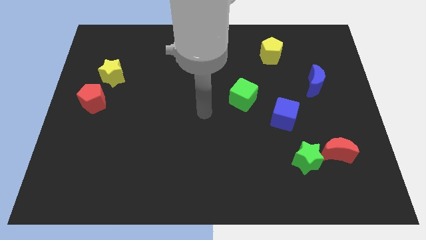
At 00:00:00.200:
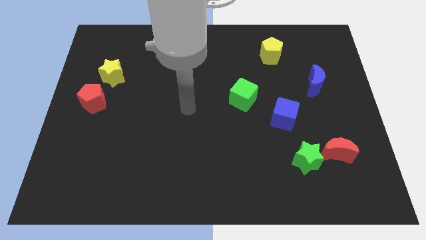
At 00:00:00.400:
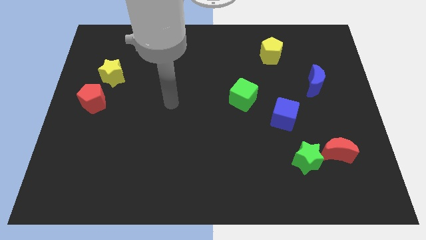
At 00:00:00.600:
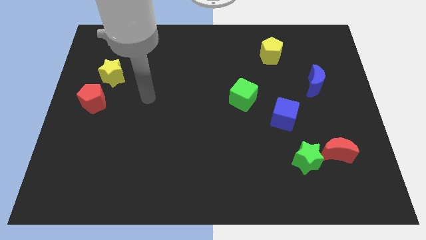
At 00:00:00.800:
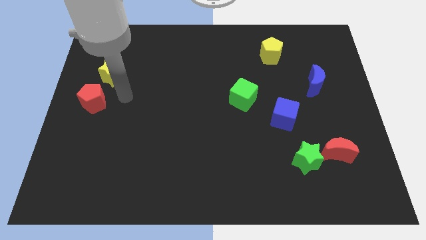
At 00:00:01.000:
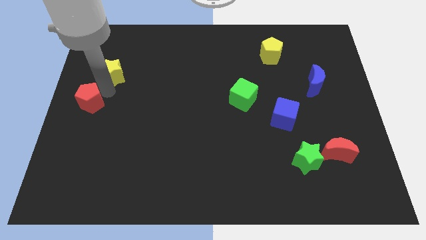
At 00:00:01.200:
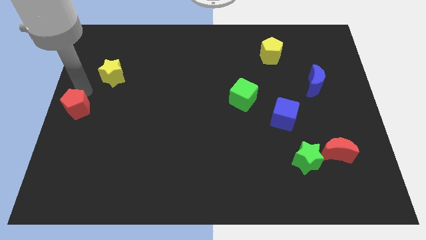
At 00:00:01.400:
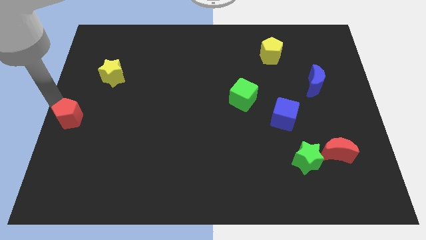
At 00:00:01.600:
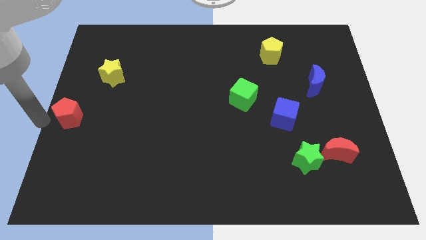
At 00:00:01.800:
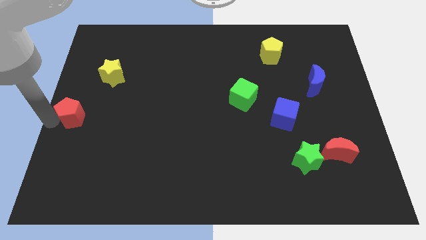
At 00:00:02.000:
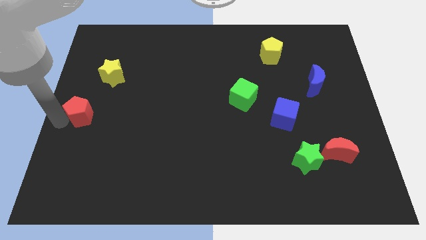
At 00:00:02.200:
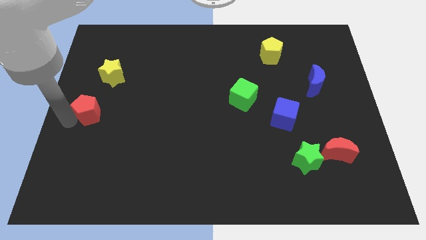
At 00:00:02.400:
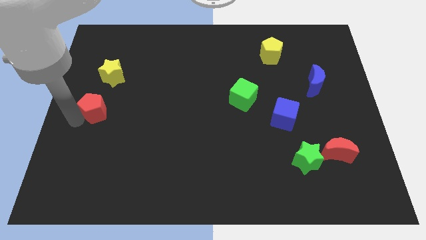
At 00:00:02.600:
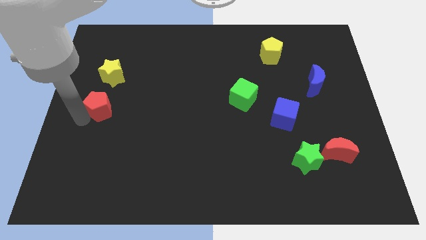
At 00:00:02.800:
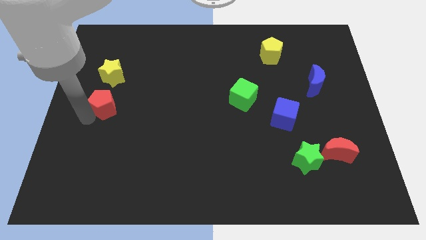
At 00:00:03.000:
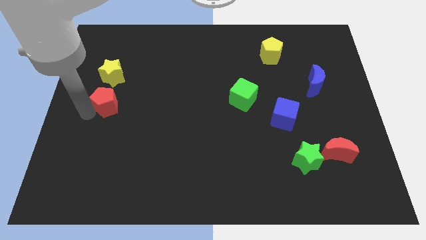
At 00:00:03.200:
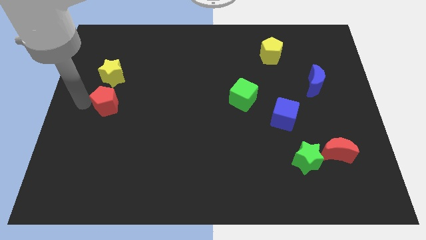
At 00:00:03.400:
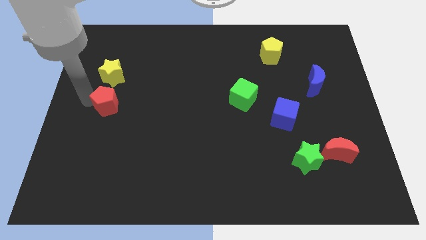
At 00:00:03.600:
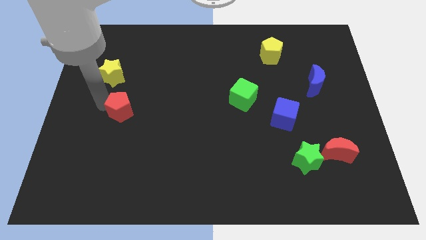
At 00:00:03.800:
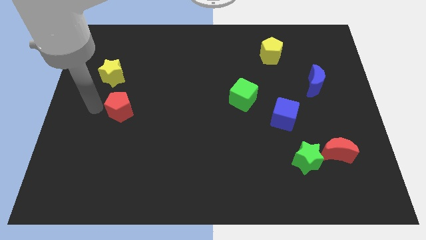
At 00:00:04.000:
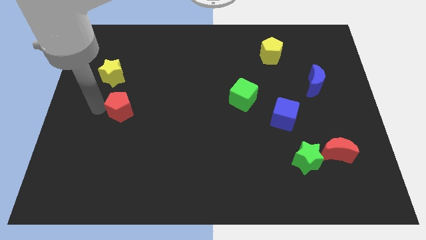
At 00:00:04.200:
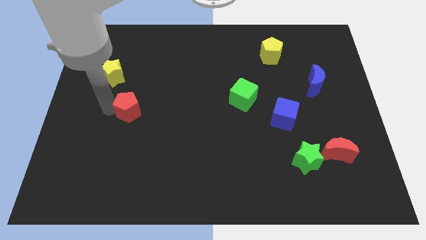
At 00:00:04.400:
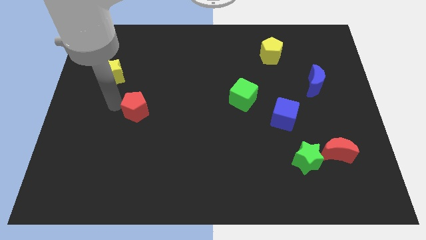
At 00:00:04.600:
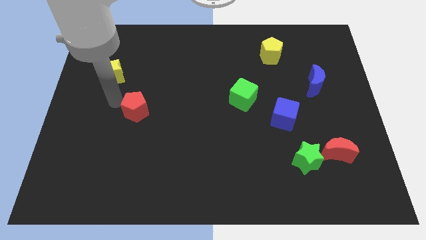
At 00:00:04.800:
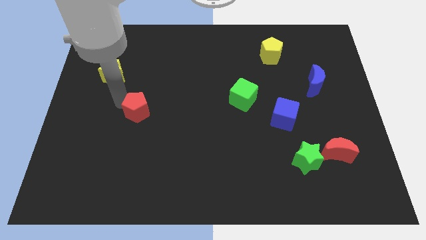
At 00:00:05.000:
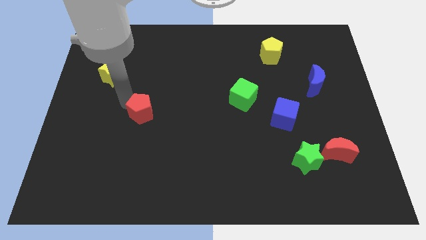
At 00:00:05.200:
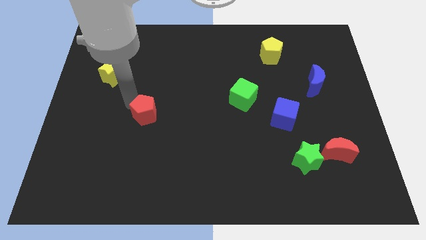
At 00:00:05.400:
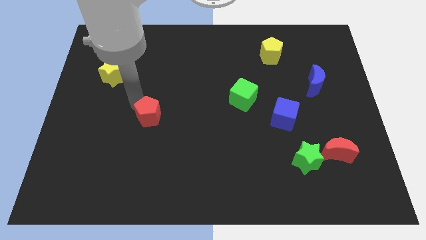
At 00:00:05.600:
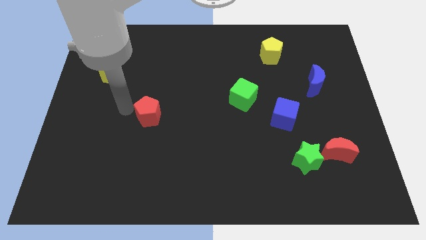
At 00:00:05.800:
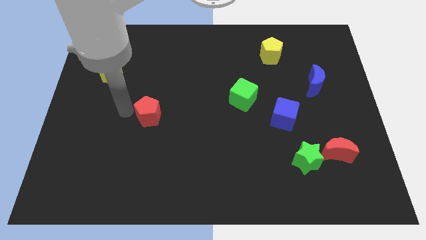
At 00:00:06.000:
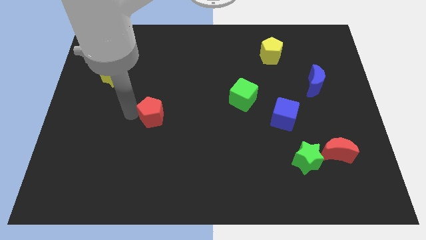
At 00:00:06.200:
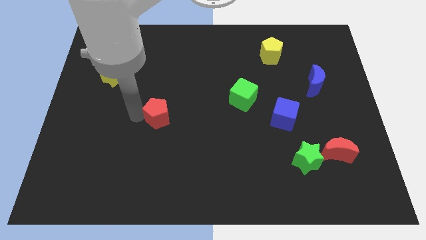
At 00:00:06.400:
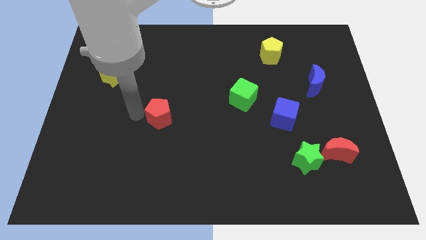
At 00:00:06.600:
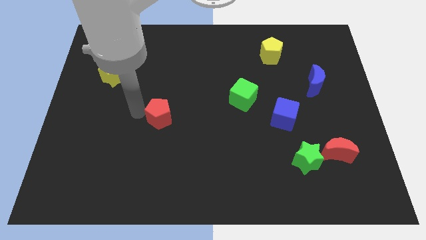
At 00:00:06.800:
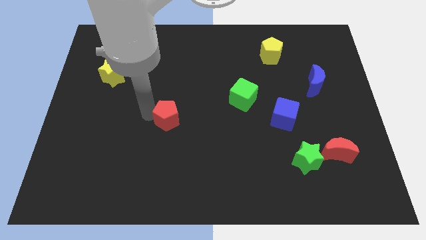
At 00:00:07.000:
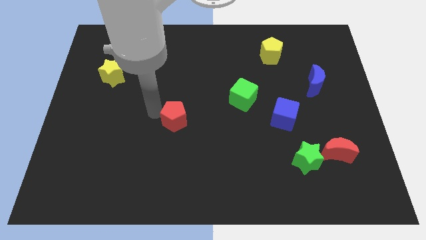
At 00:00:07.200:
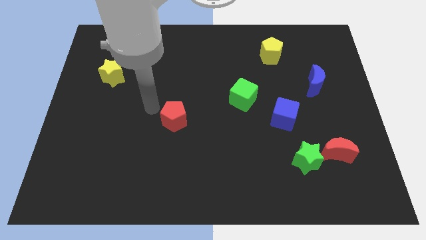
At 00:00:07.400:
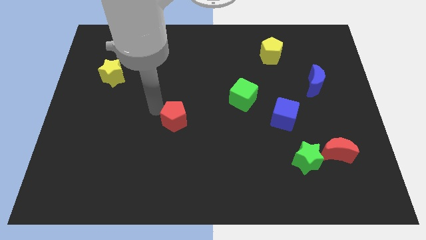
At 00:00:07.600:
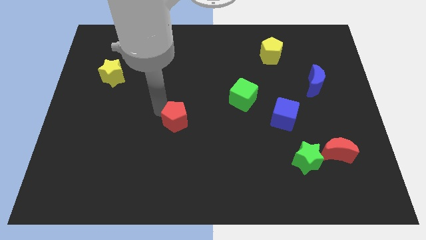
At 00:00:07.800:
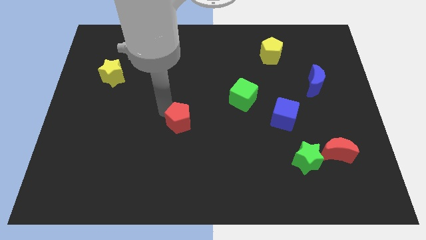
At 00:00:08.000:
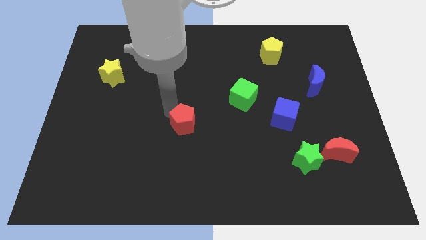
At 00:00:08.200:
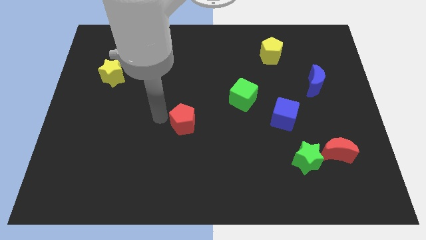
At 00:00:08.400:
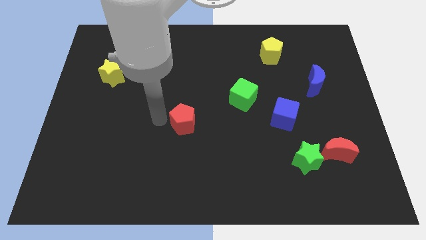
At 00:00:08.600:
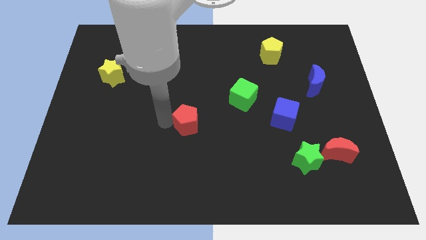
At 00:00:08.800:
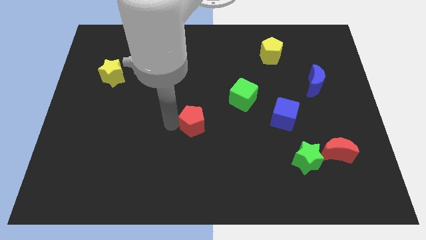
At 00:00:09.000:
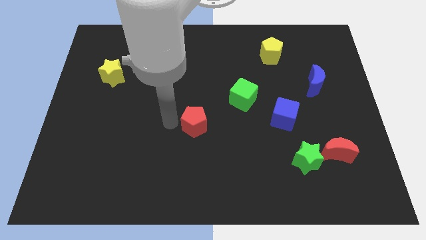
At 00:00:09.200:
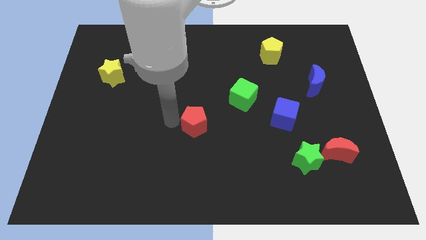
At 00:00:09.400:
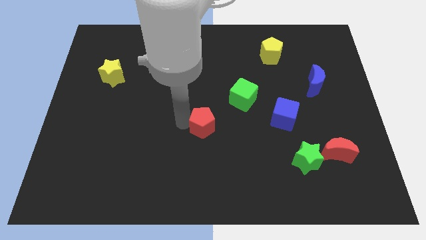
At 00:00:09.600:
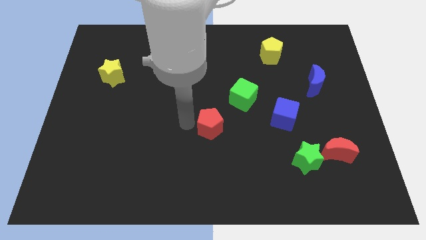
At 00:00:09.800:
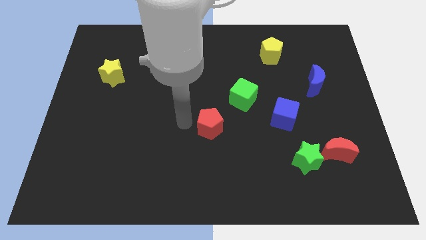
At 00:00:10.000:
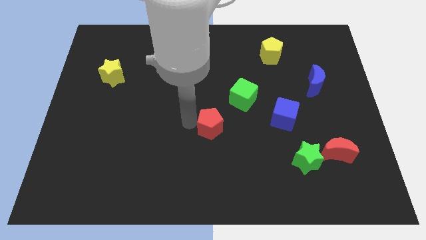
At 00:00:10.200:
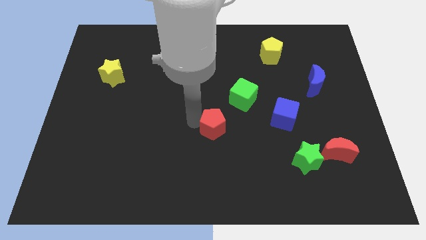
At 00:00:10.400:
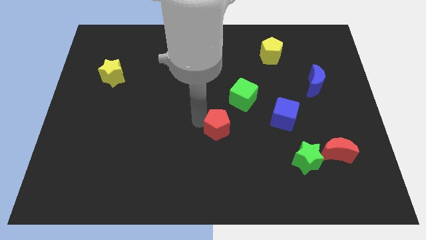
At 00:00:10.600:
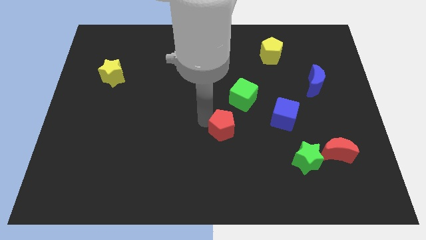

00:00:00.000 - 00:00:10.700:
slide the red pentagon to the bottom of the green cube
